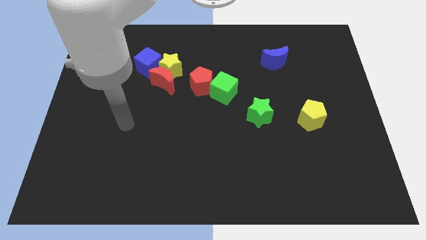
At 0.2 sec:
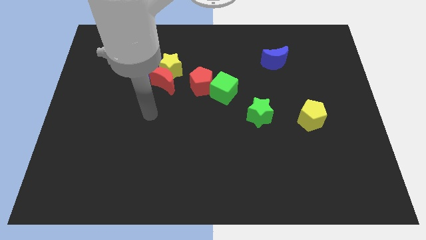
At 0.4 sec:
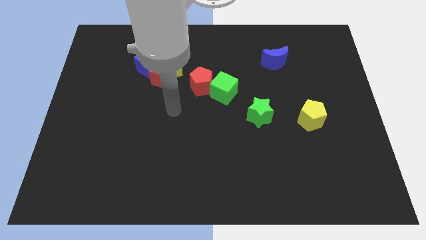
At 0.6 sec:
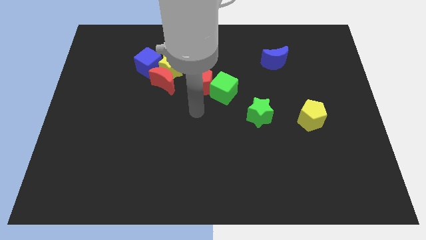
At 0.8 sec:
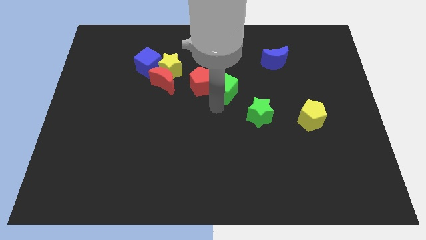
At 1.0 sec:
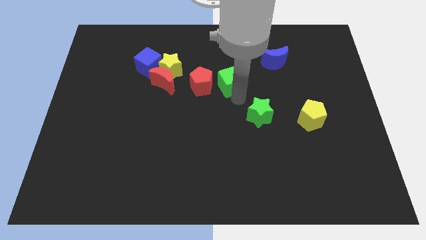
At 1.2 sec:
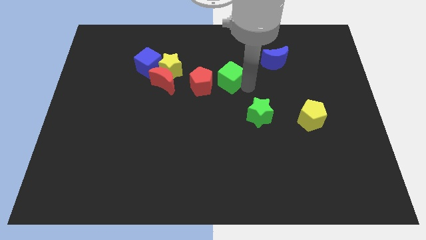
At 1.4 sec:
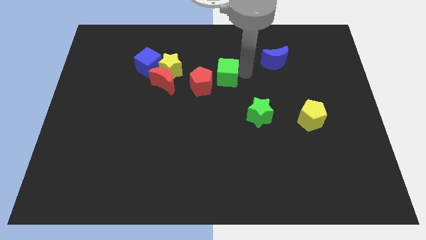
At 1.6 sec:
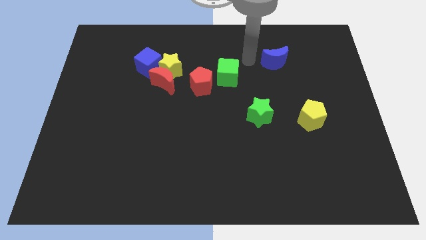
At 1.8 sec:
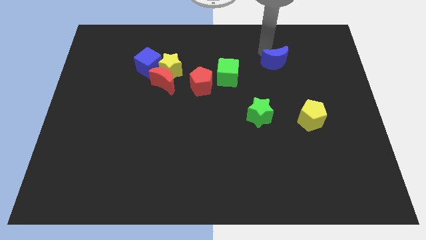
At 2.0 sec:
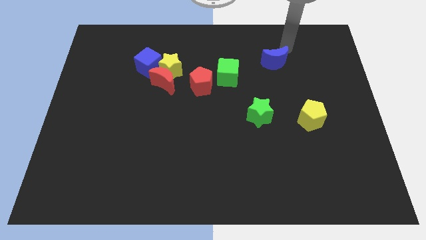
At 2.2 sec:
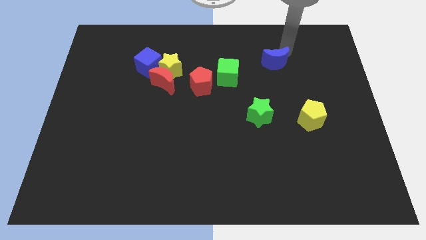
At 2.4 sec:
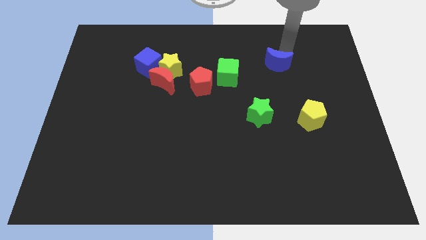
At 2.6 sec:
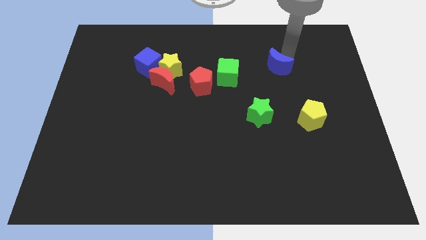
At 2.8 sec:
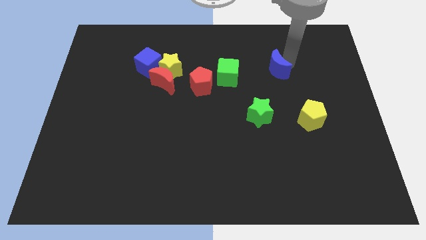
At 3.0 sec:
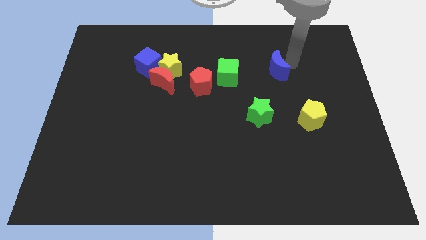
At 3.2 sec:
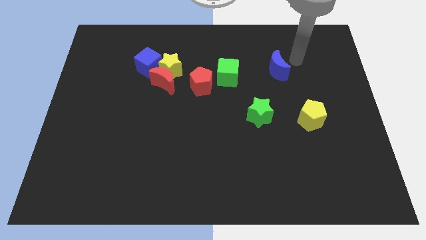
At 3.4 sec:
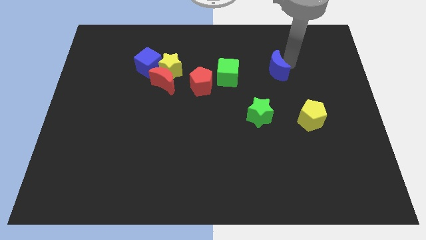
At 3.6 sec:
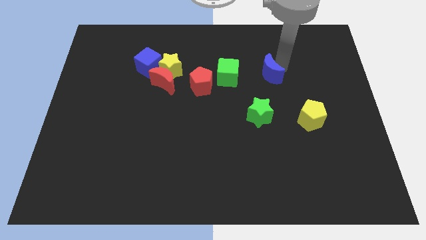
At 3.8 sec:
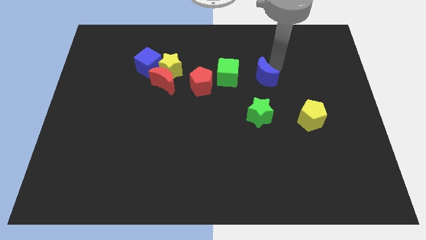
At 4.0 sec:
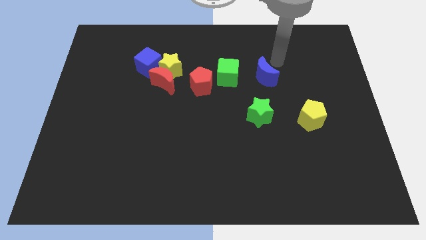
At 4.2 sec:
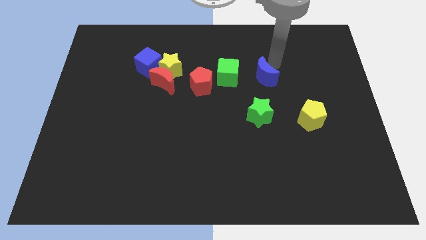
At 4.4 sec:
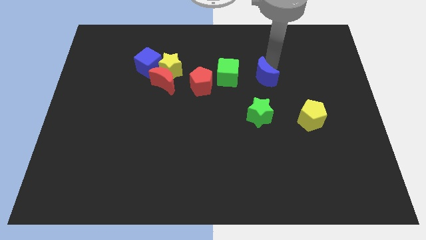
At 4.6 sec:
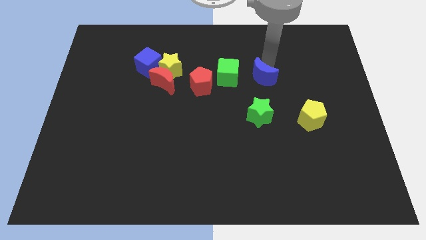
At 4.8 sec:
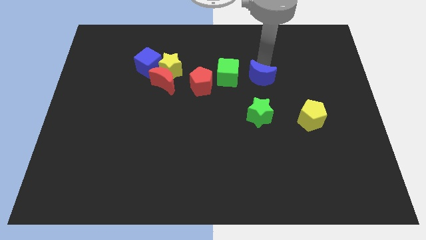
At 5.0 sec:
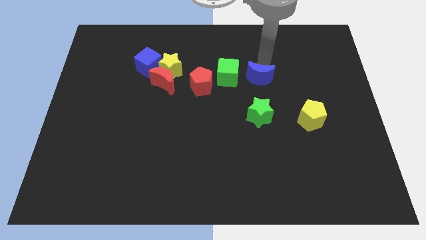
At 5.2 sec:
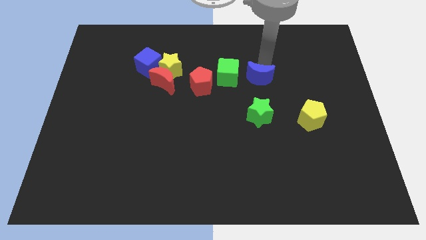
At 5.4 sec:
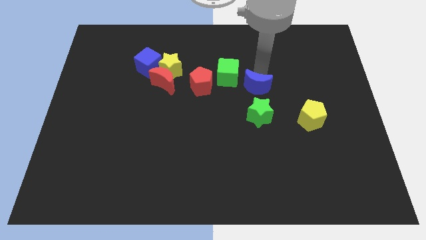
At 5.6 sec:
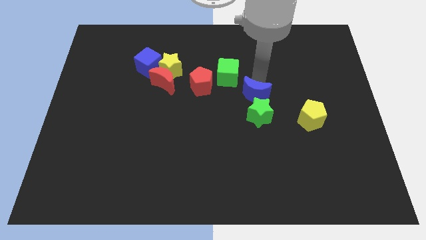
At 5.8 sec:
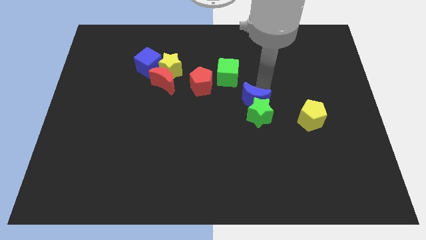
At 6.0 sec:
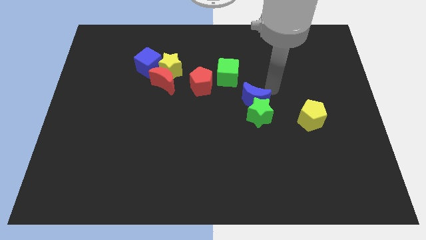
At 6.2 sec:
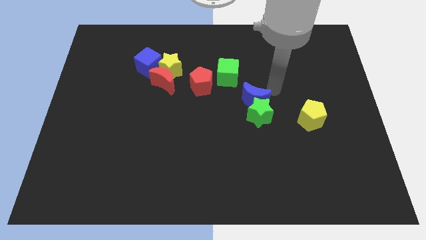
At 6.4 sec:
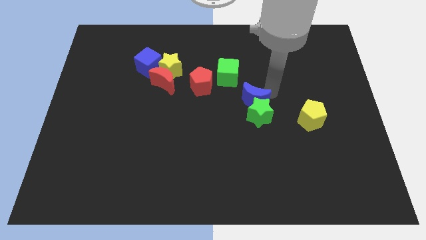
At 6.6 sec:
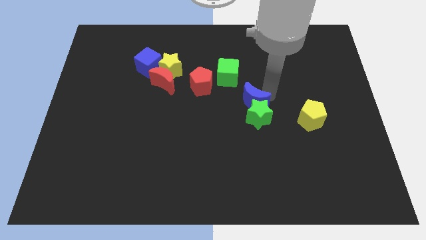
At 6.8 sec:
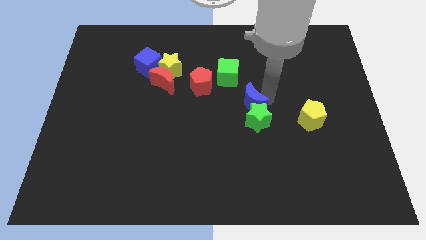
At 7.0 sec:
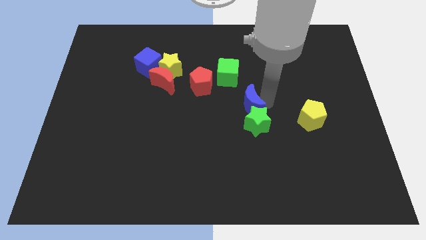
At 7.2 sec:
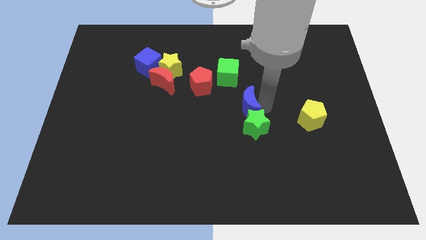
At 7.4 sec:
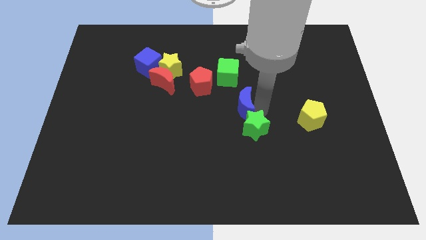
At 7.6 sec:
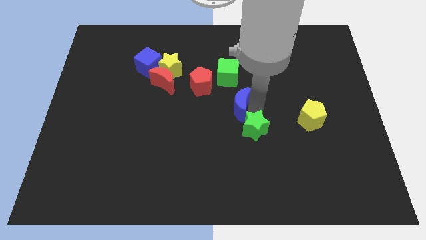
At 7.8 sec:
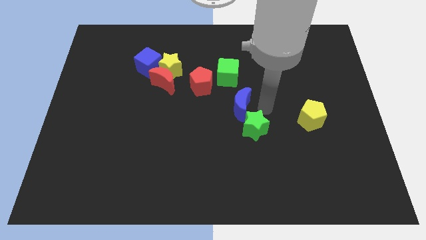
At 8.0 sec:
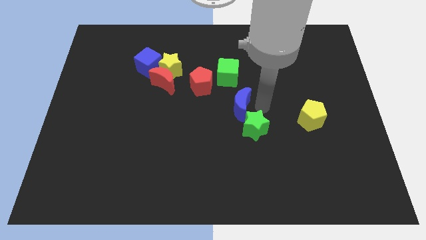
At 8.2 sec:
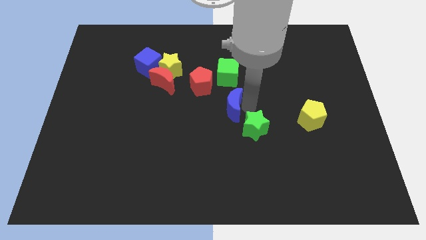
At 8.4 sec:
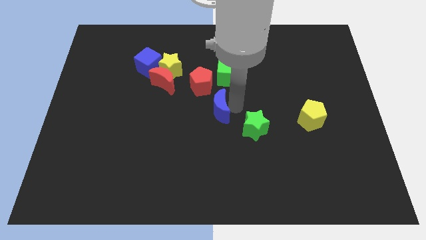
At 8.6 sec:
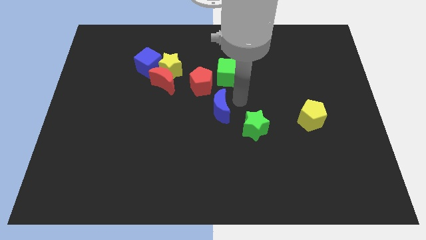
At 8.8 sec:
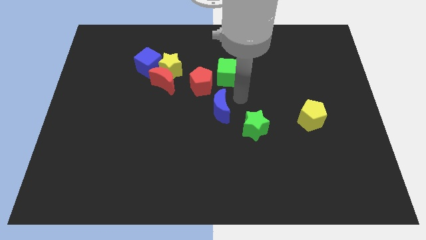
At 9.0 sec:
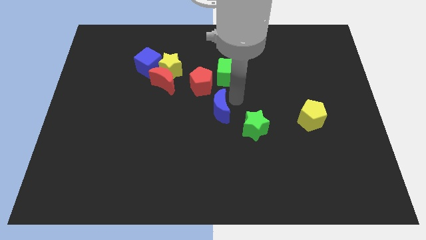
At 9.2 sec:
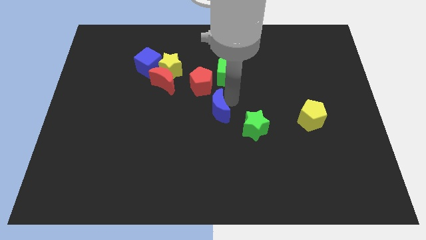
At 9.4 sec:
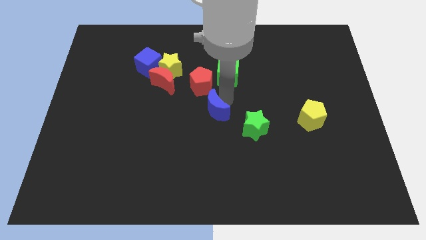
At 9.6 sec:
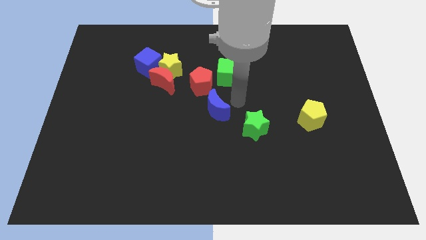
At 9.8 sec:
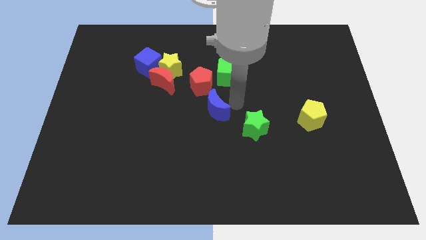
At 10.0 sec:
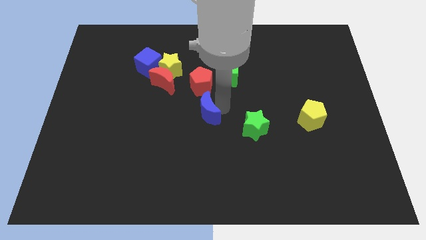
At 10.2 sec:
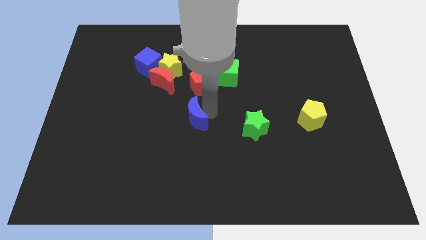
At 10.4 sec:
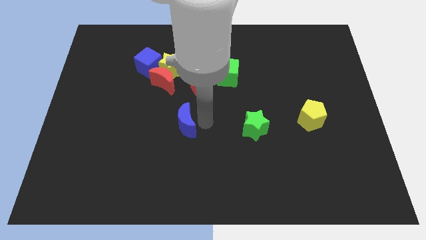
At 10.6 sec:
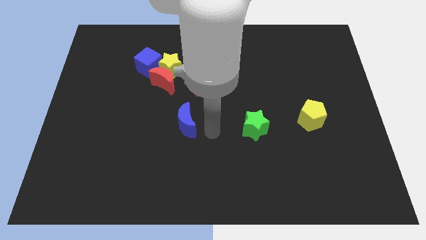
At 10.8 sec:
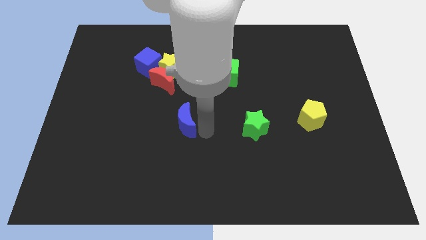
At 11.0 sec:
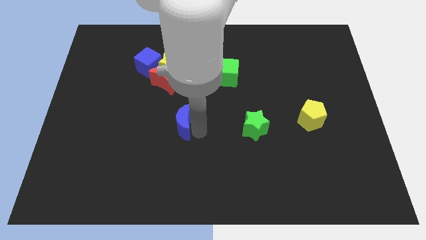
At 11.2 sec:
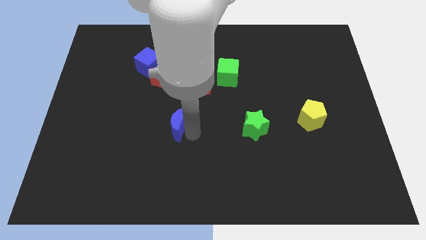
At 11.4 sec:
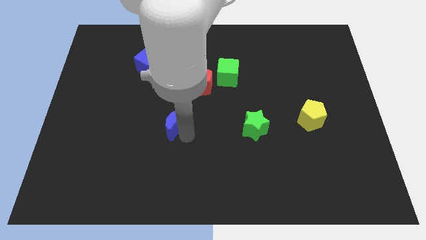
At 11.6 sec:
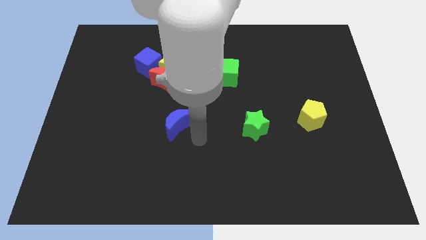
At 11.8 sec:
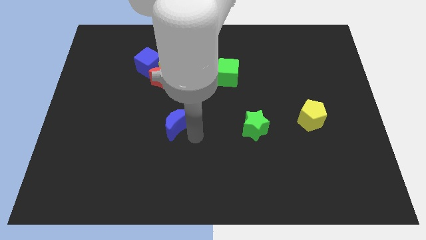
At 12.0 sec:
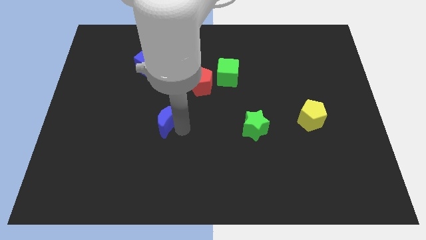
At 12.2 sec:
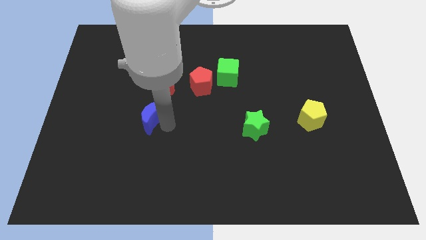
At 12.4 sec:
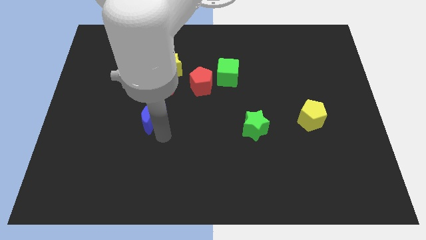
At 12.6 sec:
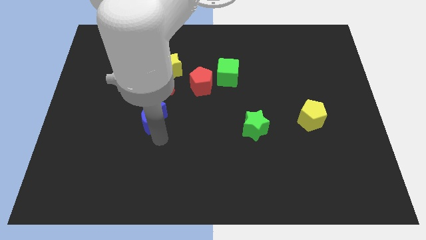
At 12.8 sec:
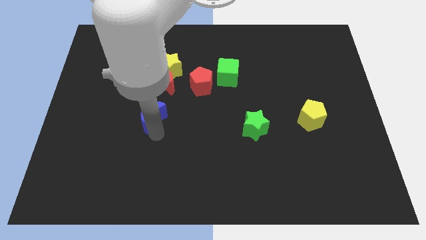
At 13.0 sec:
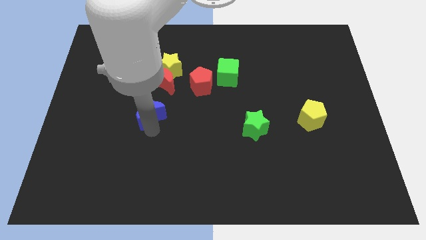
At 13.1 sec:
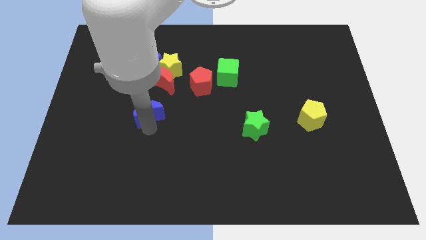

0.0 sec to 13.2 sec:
push the blue moon below the blue cube

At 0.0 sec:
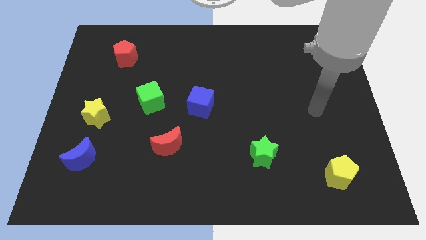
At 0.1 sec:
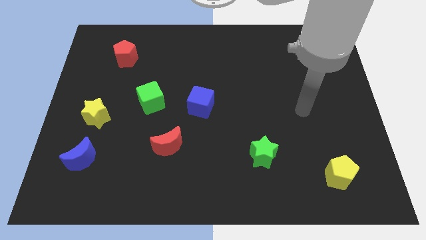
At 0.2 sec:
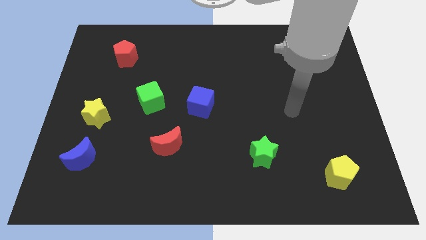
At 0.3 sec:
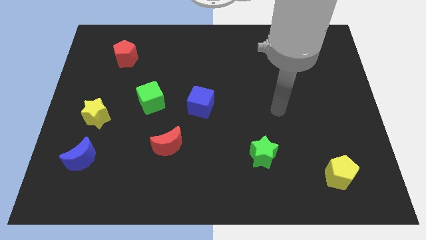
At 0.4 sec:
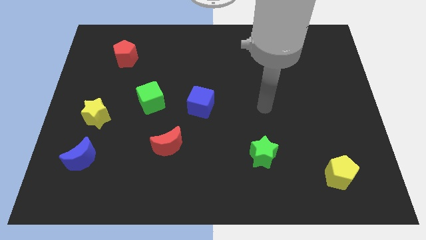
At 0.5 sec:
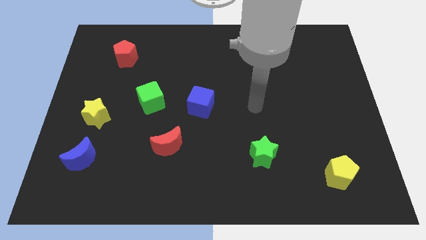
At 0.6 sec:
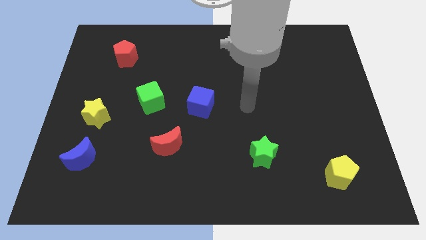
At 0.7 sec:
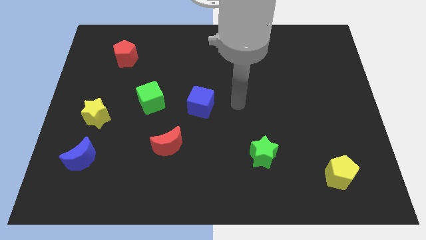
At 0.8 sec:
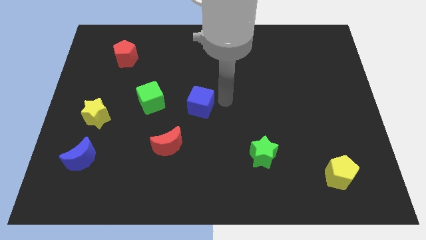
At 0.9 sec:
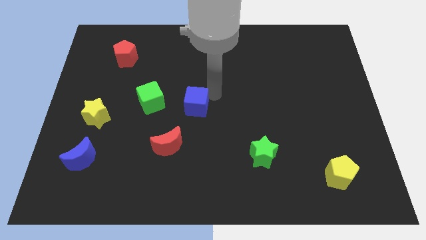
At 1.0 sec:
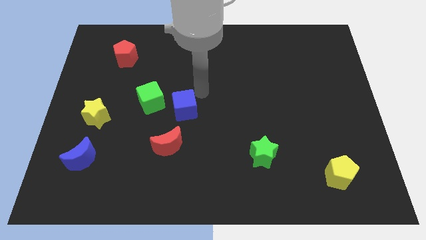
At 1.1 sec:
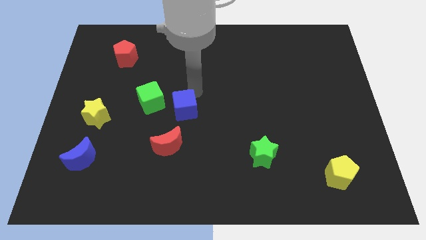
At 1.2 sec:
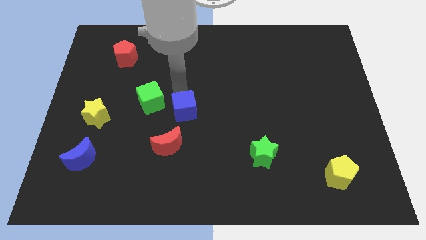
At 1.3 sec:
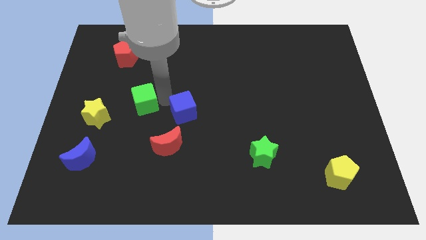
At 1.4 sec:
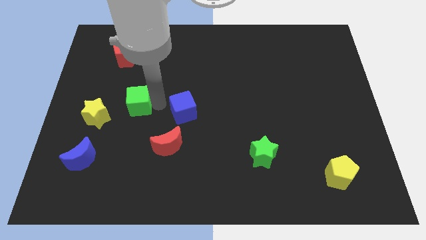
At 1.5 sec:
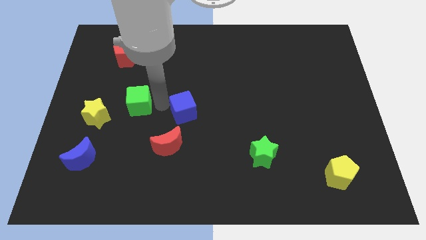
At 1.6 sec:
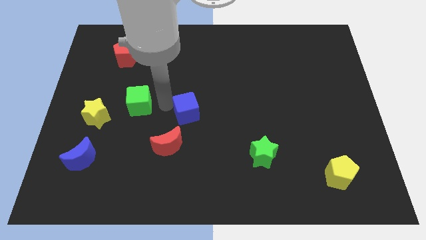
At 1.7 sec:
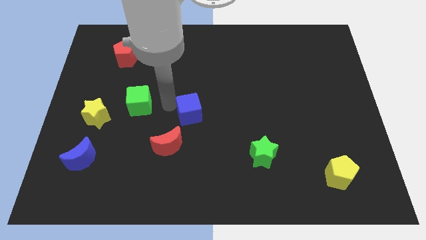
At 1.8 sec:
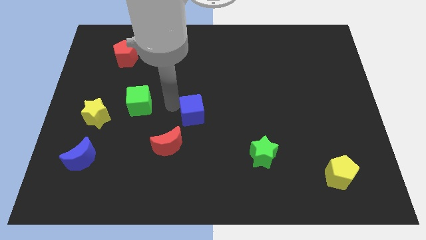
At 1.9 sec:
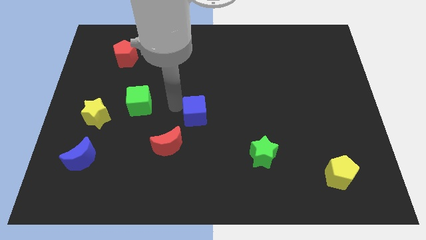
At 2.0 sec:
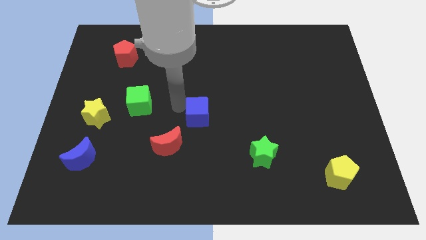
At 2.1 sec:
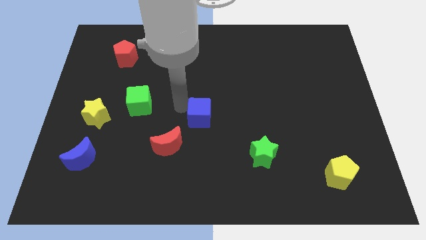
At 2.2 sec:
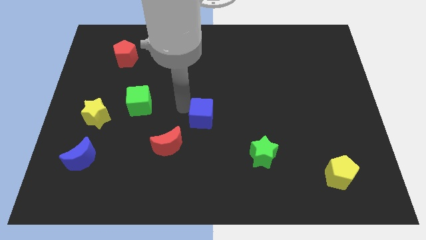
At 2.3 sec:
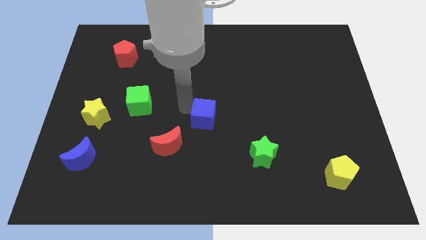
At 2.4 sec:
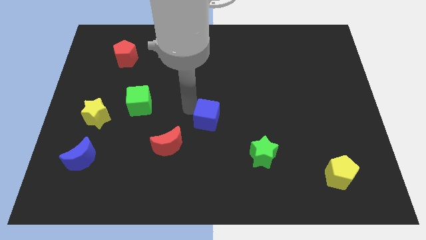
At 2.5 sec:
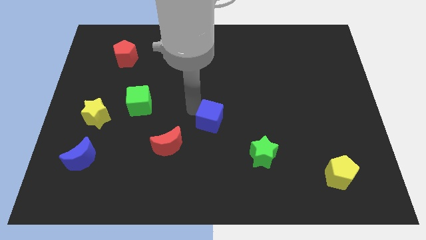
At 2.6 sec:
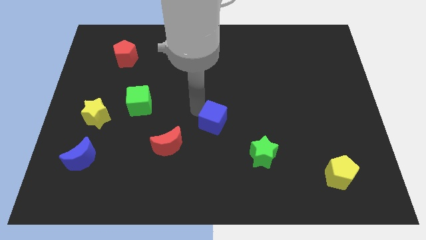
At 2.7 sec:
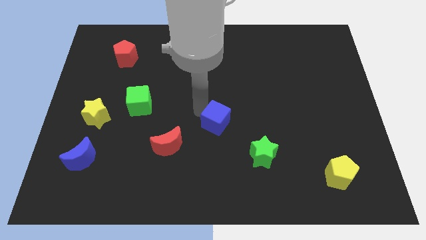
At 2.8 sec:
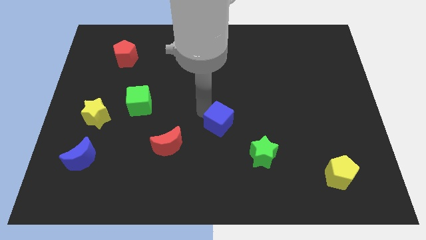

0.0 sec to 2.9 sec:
move the blue cube diagonally up and to the left of the green star
